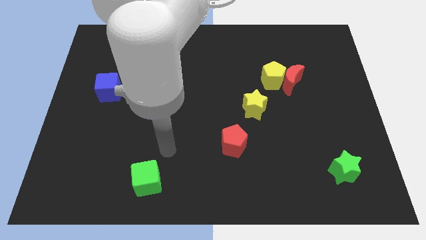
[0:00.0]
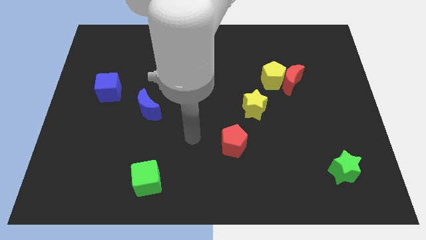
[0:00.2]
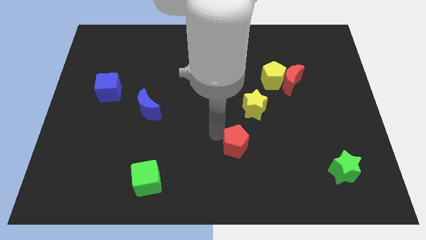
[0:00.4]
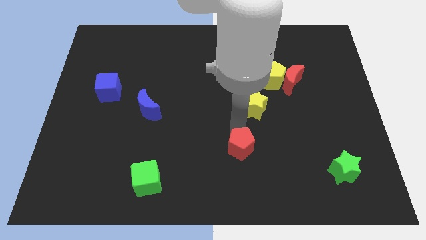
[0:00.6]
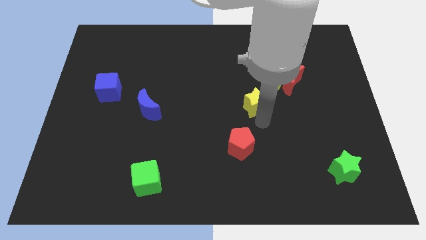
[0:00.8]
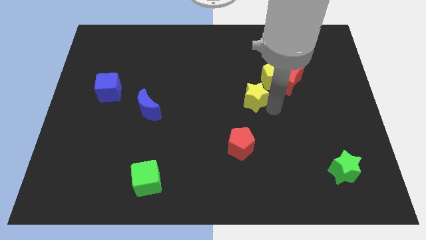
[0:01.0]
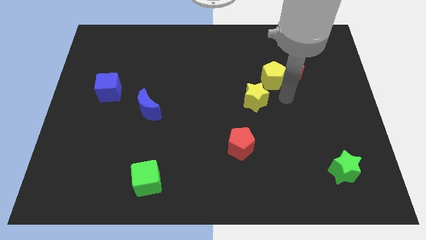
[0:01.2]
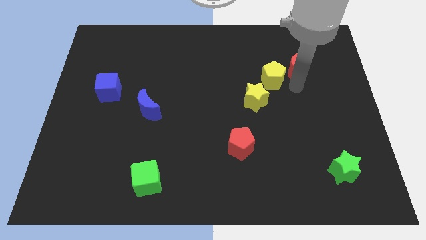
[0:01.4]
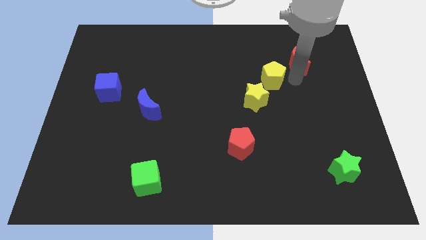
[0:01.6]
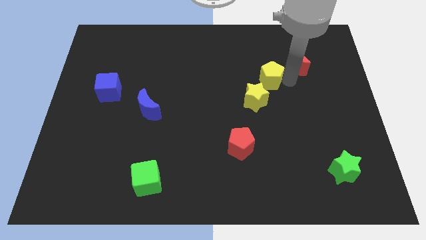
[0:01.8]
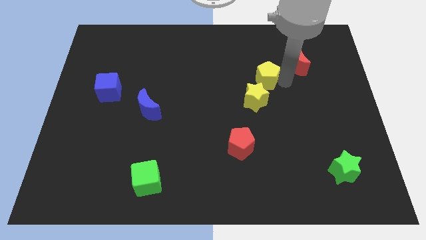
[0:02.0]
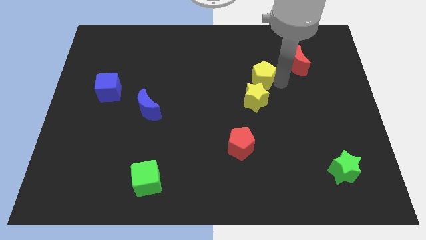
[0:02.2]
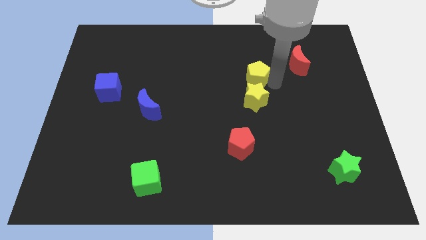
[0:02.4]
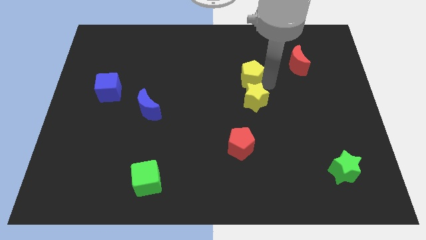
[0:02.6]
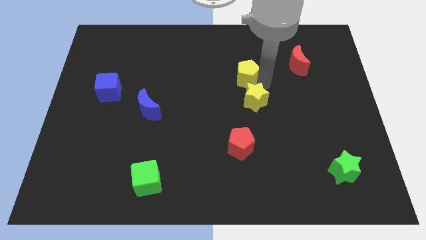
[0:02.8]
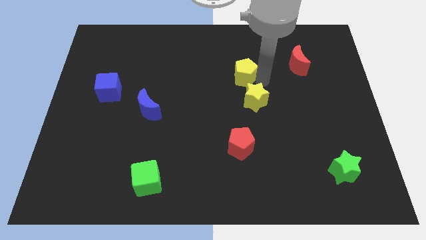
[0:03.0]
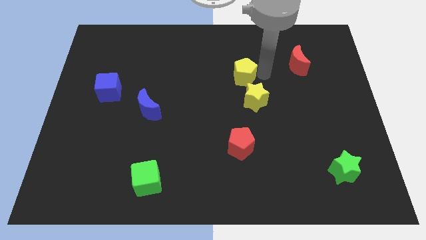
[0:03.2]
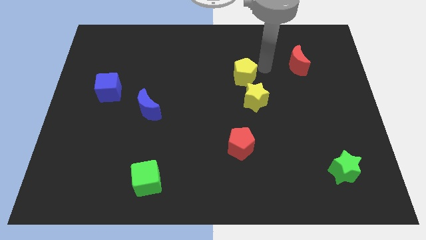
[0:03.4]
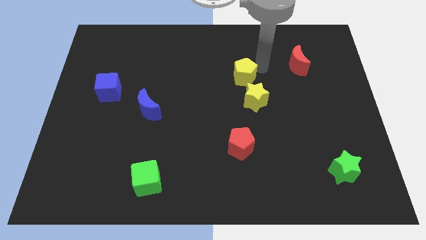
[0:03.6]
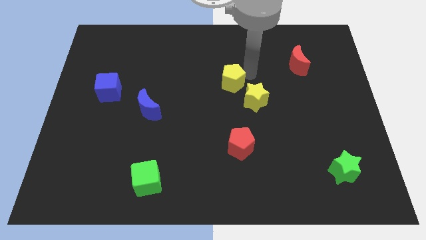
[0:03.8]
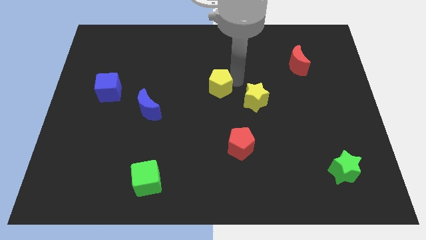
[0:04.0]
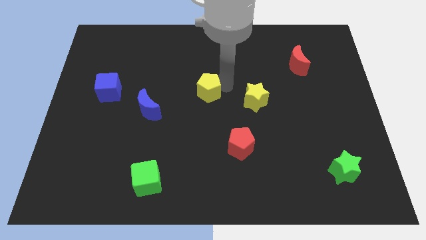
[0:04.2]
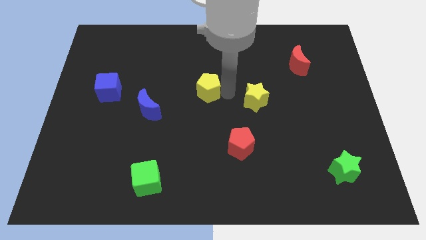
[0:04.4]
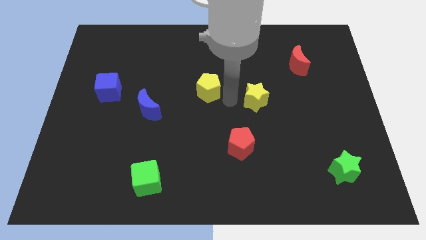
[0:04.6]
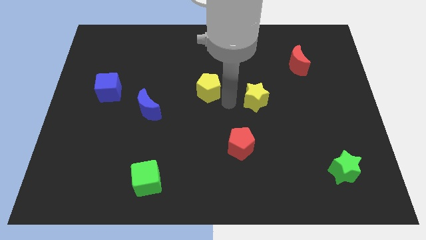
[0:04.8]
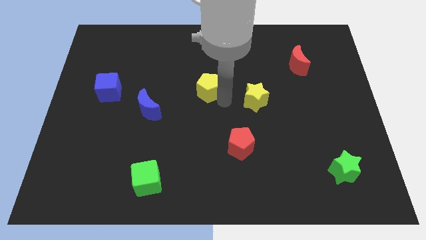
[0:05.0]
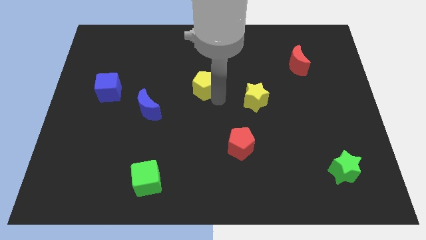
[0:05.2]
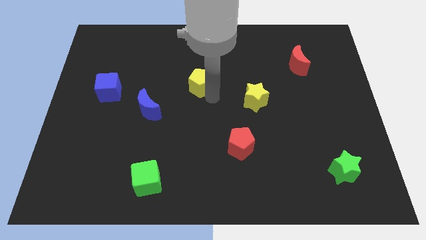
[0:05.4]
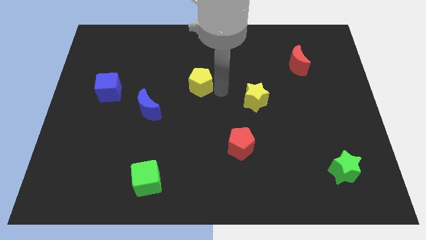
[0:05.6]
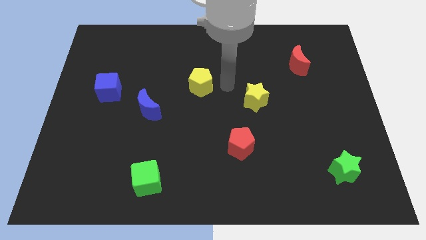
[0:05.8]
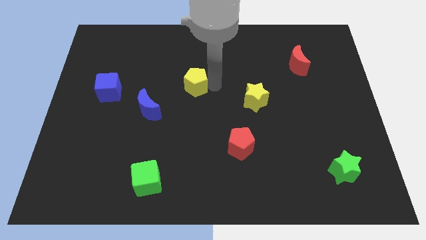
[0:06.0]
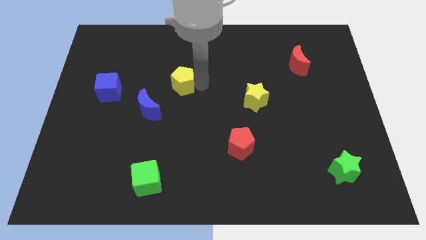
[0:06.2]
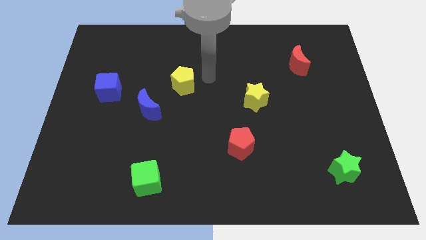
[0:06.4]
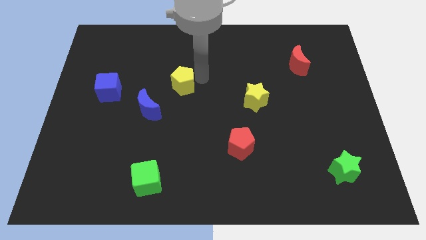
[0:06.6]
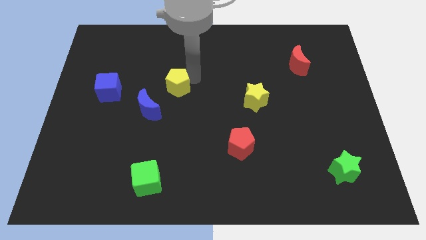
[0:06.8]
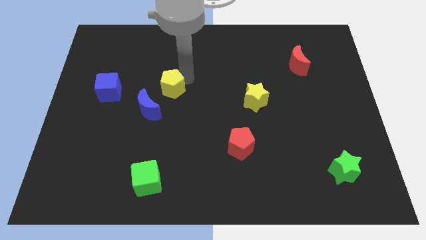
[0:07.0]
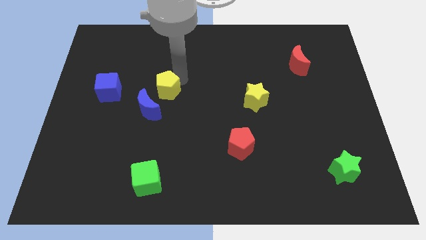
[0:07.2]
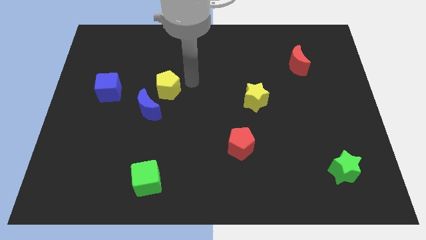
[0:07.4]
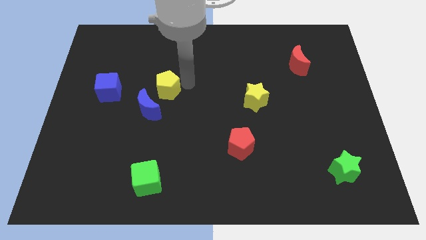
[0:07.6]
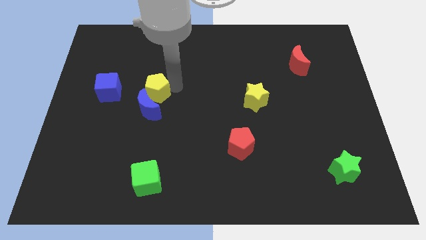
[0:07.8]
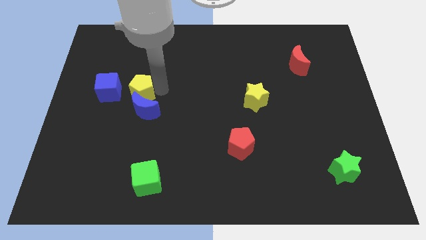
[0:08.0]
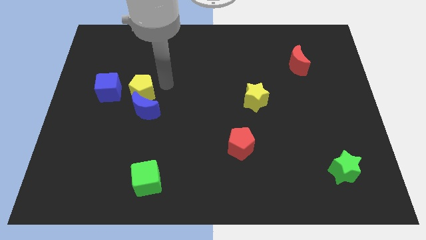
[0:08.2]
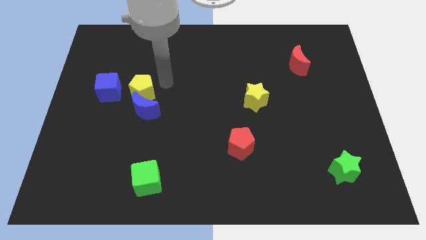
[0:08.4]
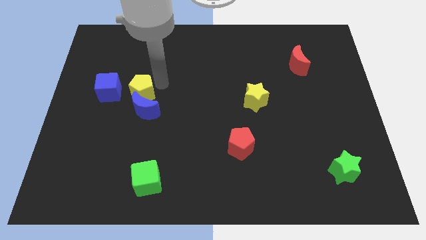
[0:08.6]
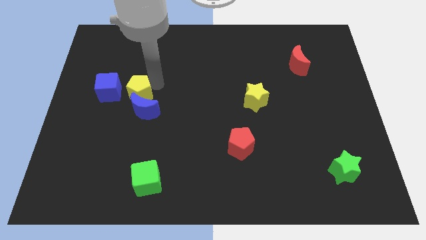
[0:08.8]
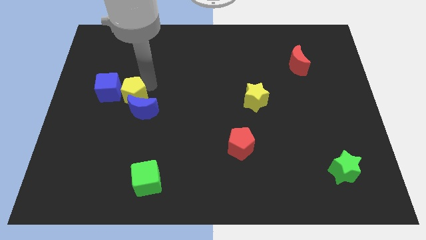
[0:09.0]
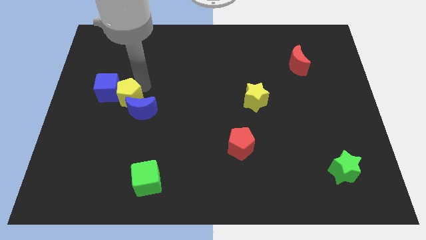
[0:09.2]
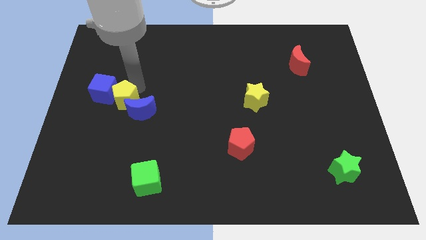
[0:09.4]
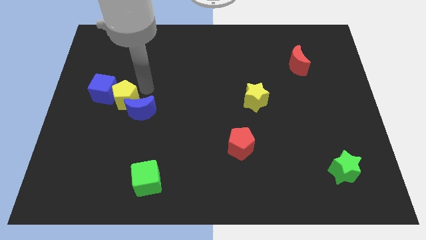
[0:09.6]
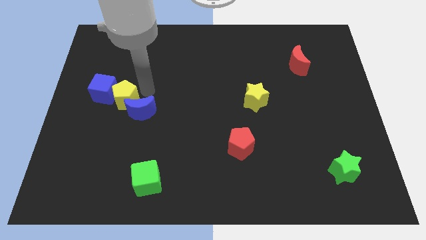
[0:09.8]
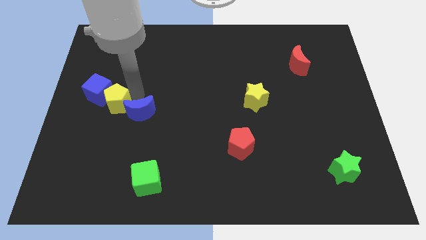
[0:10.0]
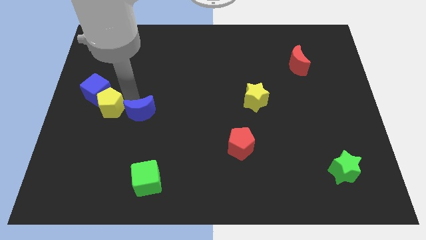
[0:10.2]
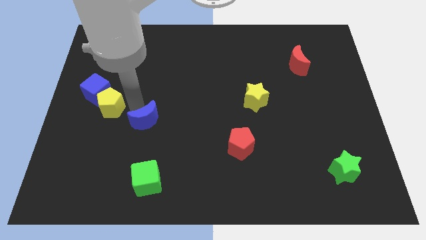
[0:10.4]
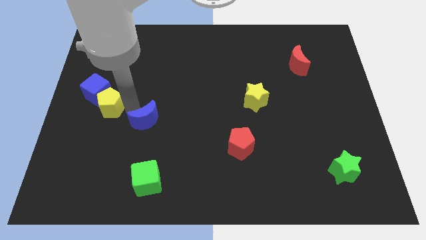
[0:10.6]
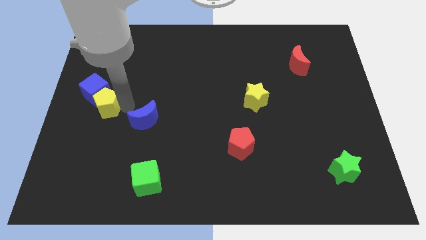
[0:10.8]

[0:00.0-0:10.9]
push the yellow pentagon to the center left

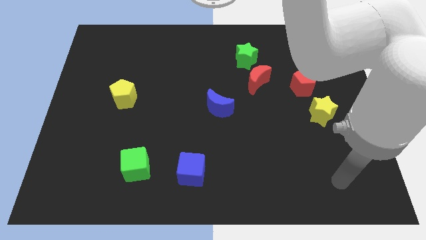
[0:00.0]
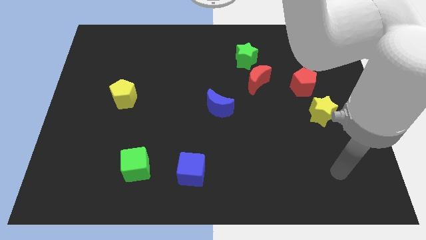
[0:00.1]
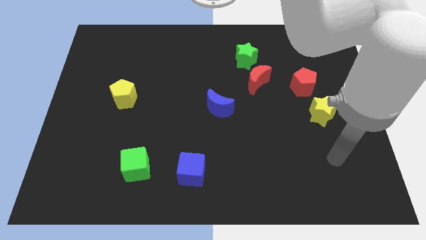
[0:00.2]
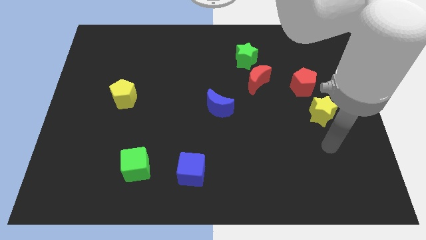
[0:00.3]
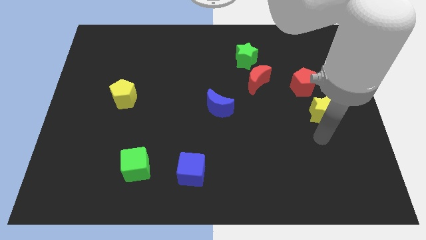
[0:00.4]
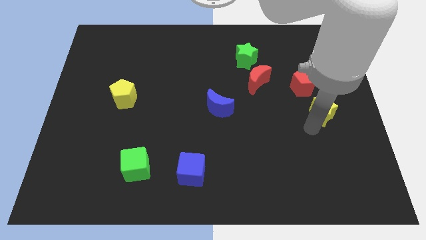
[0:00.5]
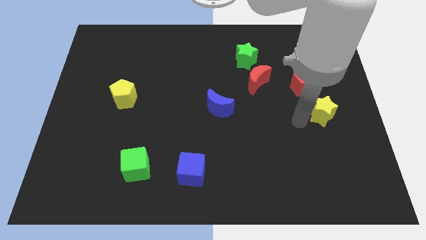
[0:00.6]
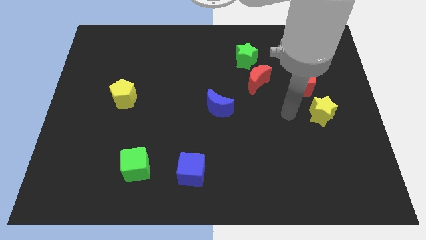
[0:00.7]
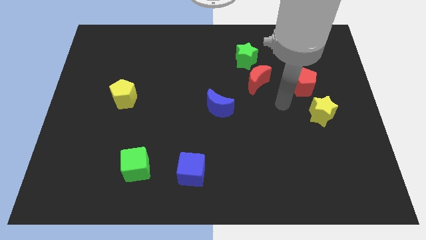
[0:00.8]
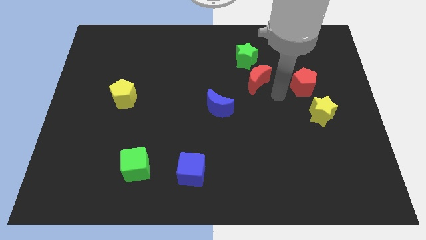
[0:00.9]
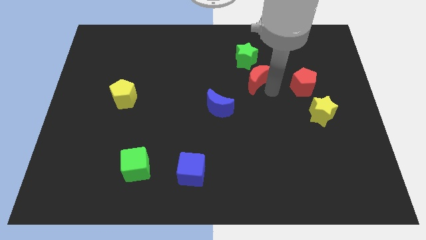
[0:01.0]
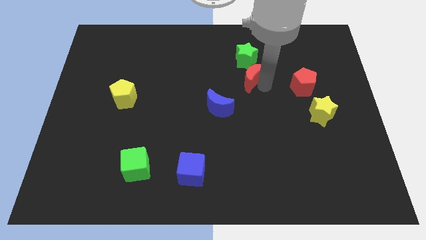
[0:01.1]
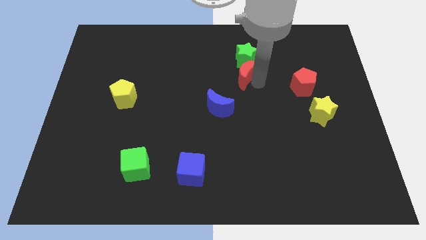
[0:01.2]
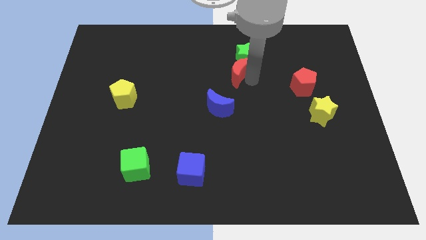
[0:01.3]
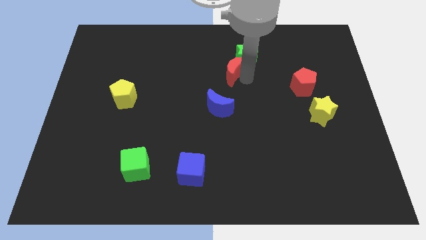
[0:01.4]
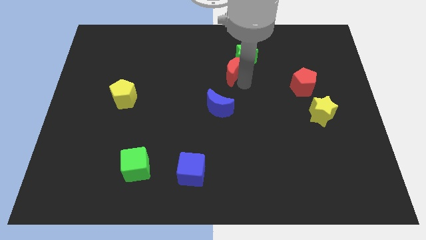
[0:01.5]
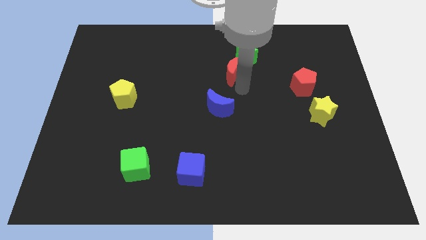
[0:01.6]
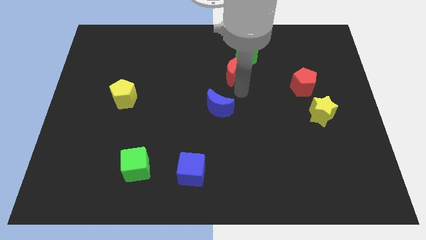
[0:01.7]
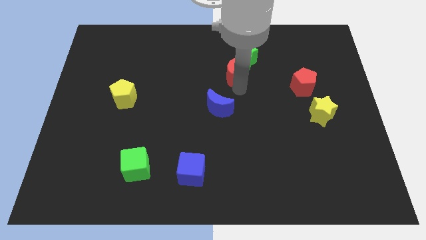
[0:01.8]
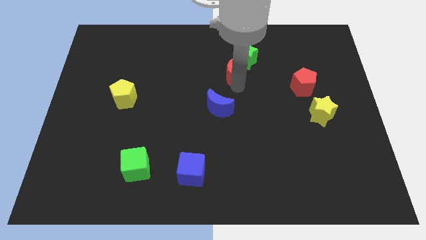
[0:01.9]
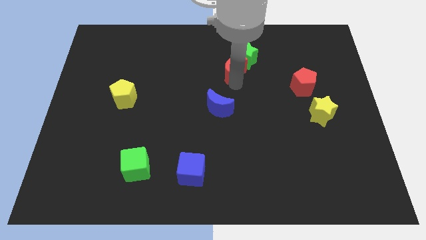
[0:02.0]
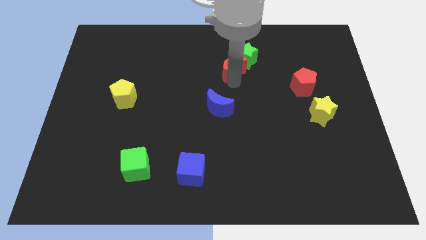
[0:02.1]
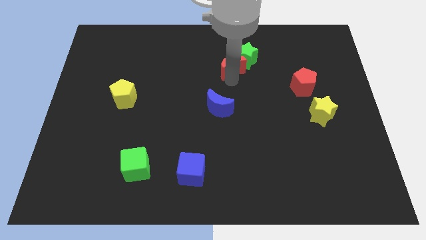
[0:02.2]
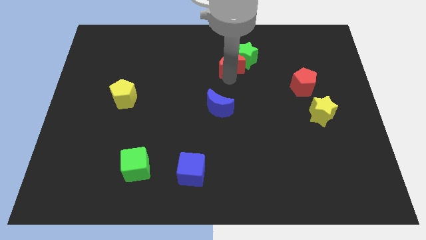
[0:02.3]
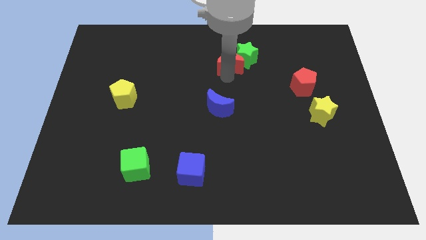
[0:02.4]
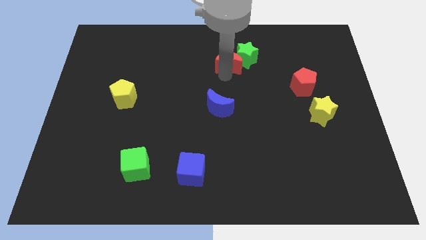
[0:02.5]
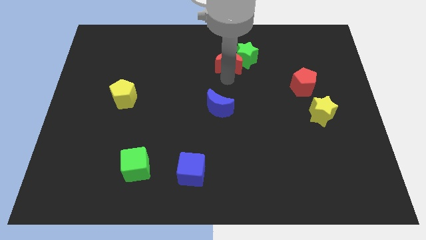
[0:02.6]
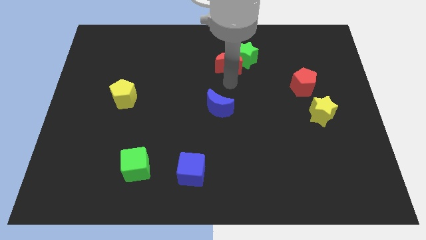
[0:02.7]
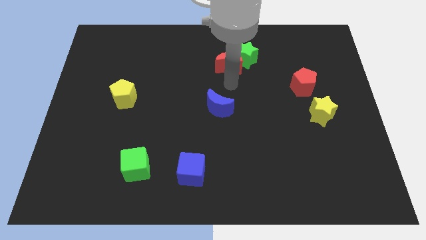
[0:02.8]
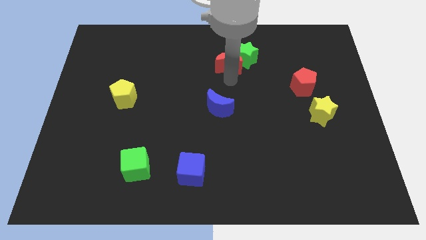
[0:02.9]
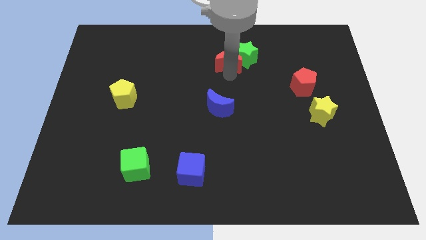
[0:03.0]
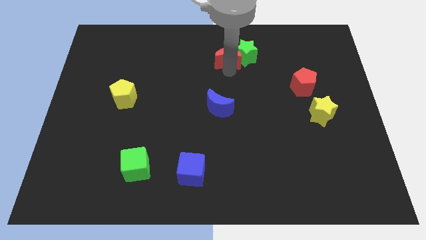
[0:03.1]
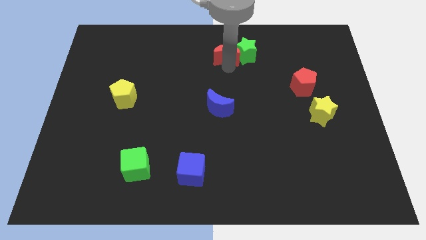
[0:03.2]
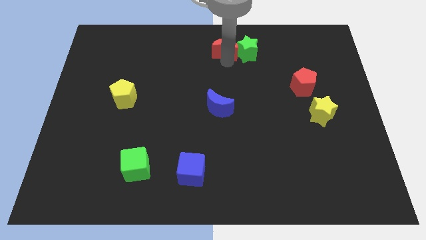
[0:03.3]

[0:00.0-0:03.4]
slide the red moon to the top side
